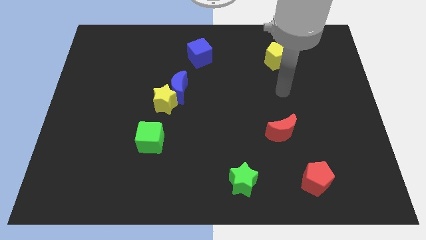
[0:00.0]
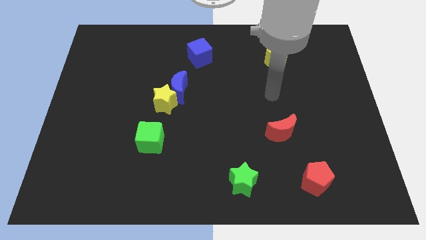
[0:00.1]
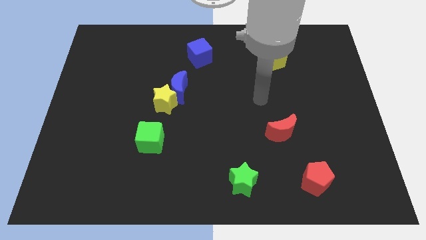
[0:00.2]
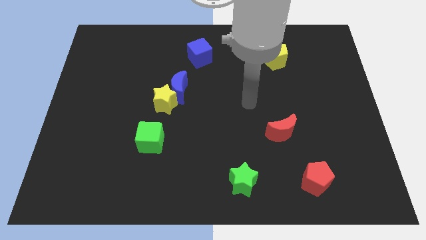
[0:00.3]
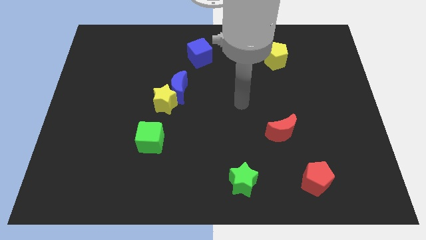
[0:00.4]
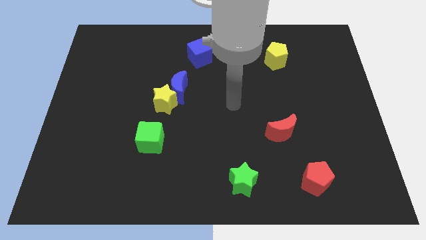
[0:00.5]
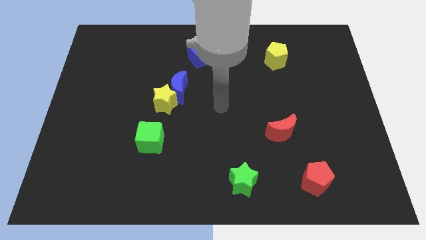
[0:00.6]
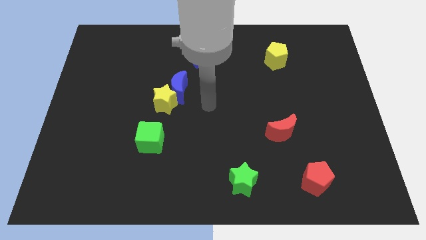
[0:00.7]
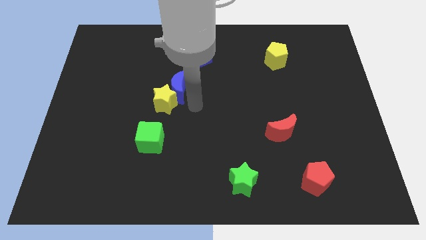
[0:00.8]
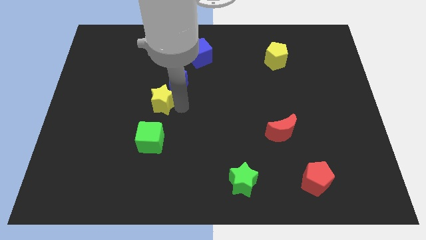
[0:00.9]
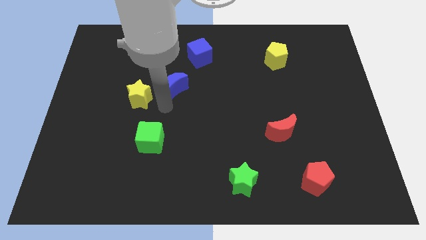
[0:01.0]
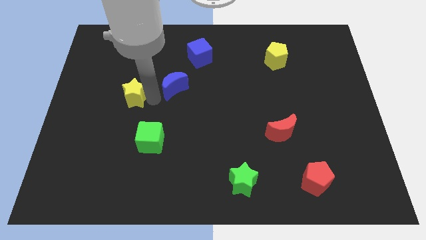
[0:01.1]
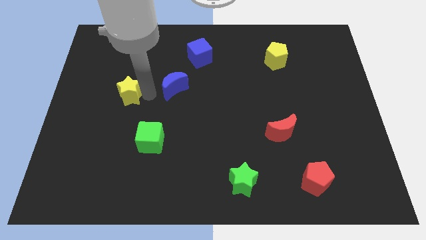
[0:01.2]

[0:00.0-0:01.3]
move the blue moon away from the yellow star

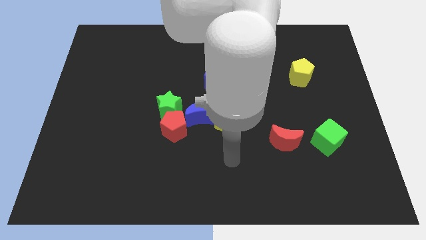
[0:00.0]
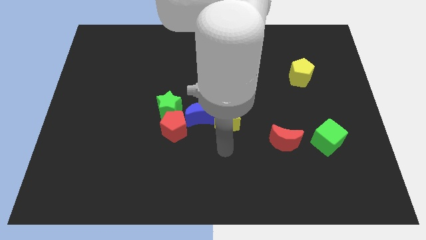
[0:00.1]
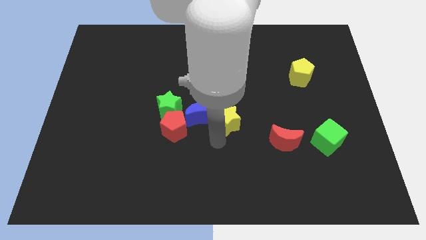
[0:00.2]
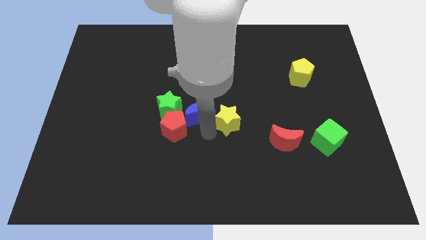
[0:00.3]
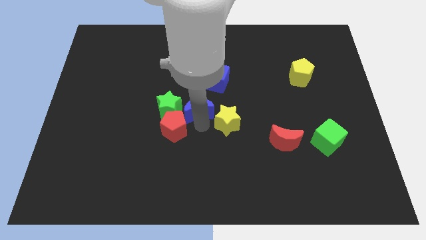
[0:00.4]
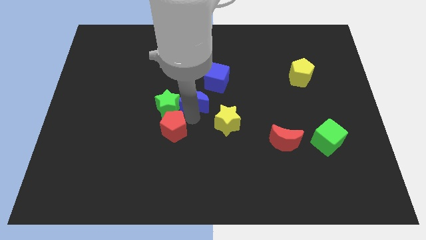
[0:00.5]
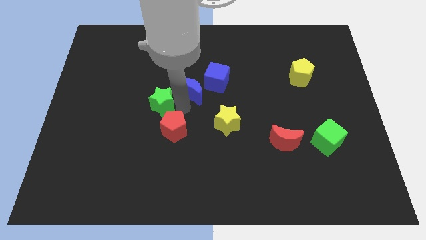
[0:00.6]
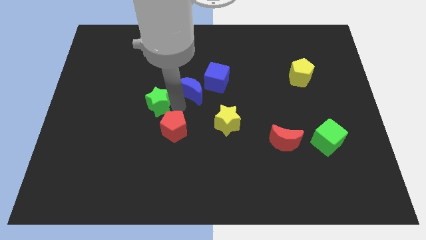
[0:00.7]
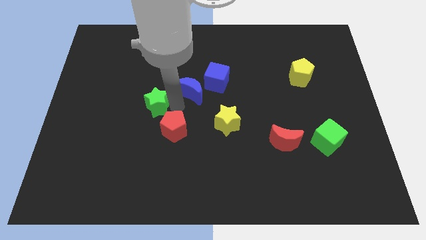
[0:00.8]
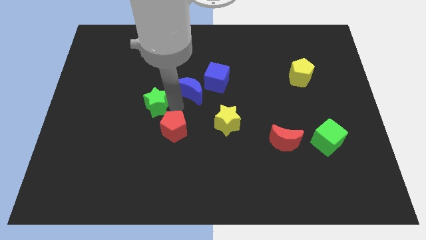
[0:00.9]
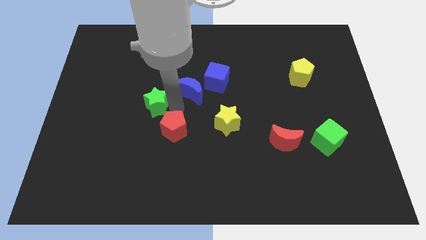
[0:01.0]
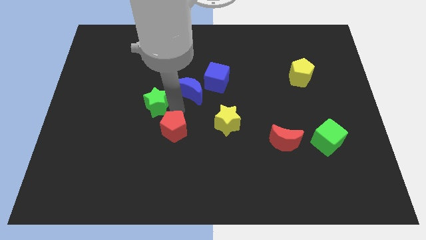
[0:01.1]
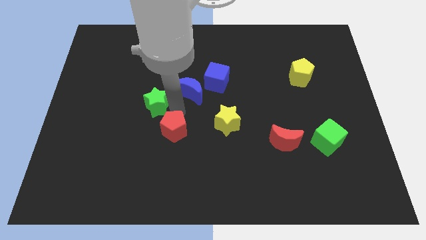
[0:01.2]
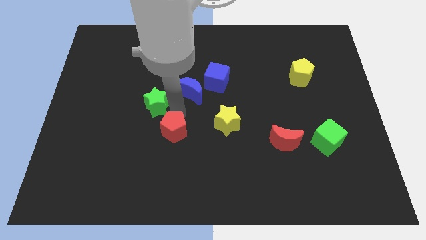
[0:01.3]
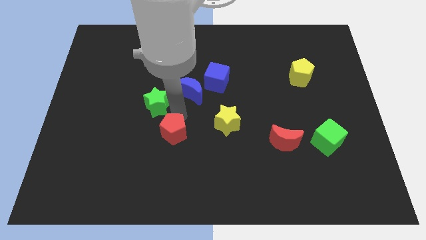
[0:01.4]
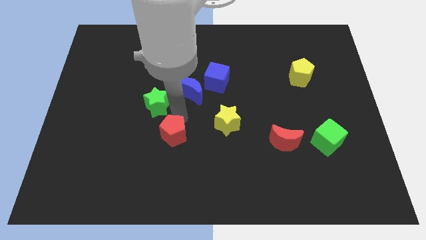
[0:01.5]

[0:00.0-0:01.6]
move the red pentagon away from the green star and blue moon

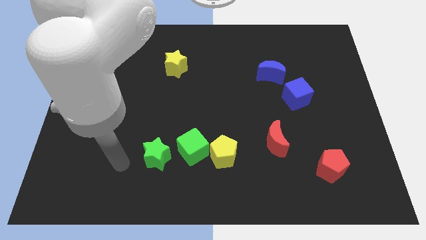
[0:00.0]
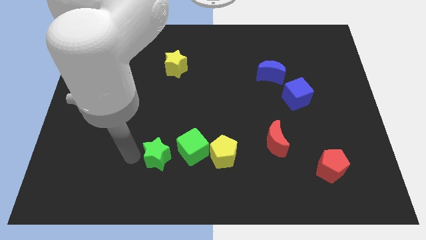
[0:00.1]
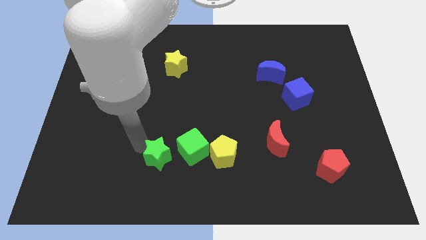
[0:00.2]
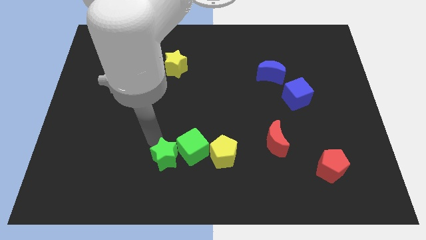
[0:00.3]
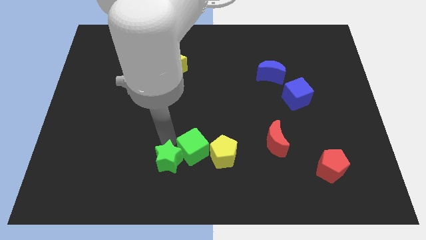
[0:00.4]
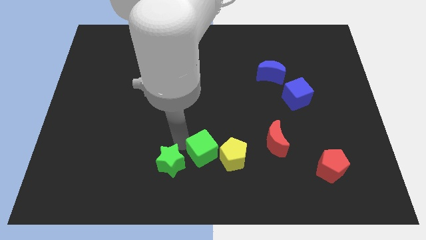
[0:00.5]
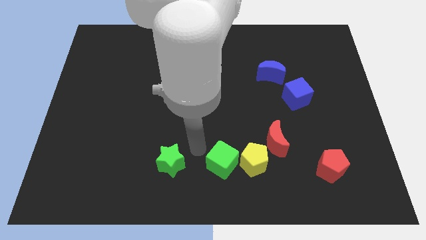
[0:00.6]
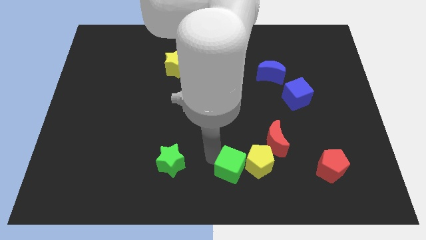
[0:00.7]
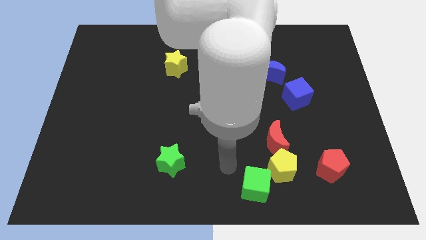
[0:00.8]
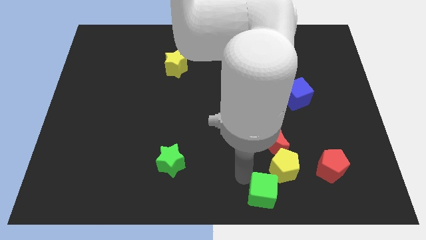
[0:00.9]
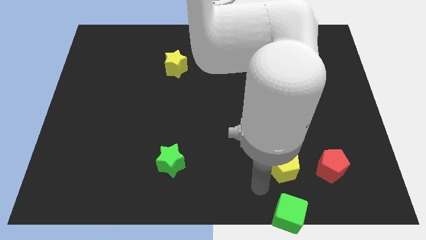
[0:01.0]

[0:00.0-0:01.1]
pull the yellow pentagon apart from the green cube

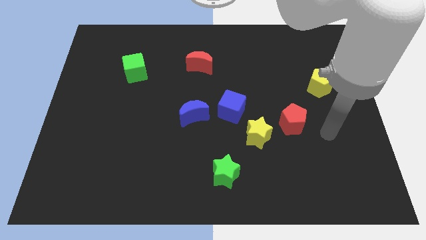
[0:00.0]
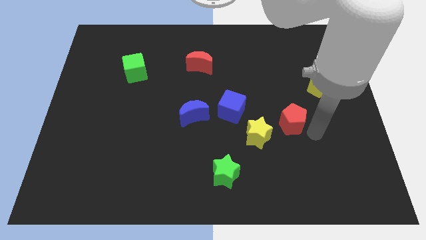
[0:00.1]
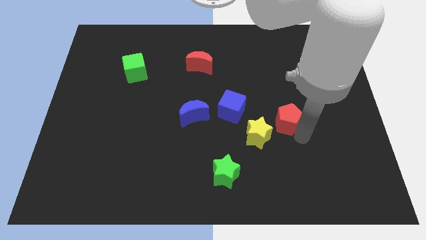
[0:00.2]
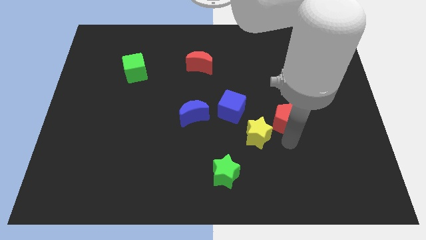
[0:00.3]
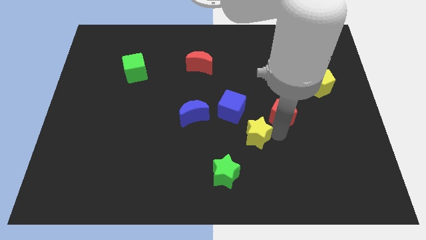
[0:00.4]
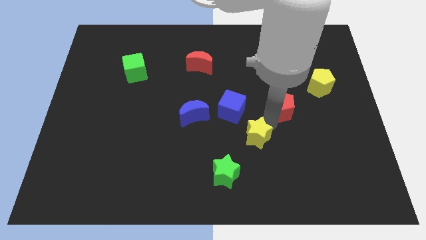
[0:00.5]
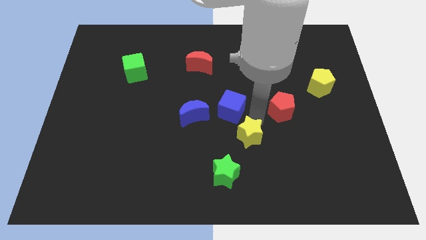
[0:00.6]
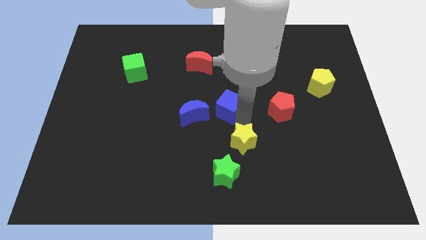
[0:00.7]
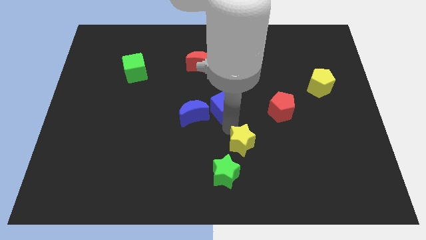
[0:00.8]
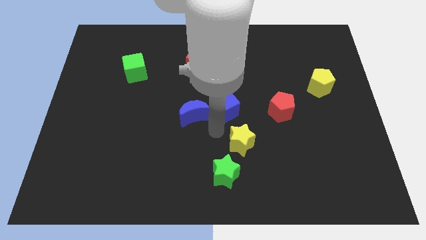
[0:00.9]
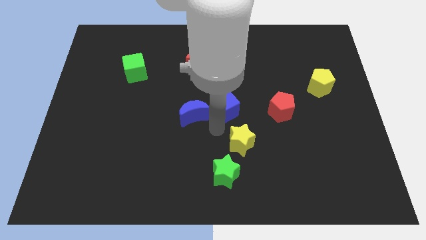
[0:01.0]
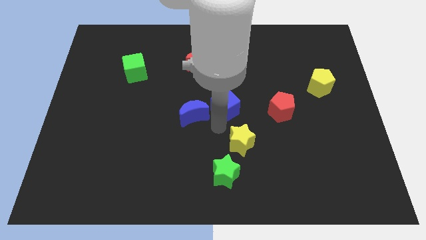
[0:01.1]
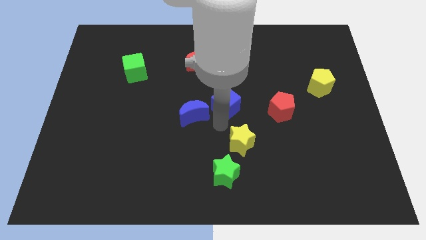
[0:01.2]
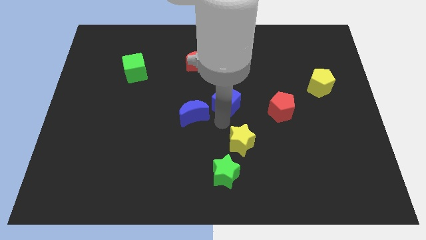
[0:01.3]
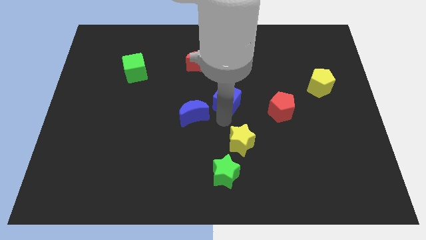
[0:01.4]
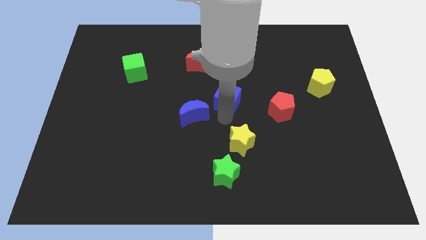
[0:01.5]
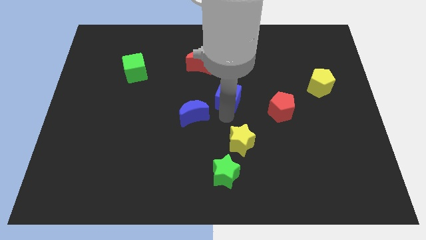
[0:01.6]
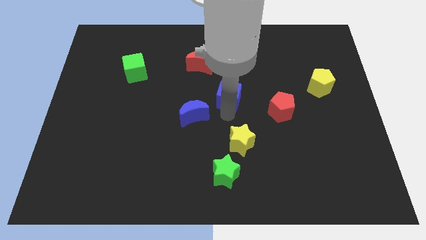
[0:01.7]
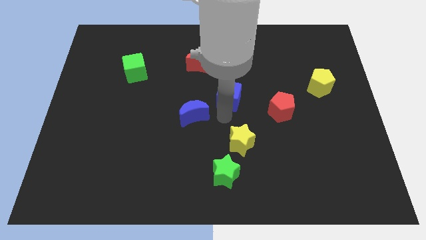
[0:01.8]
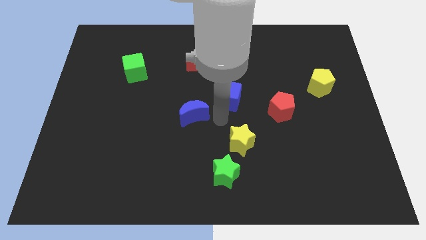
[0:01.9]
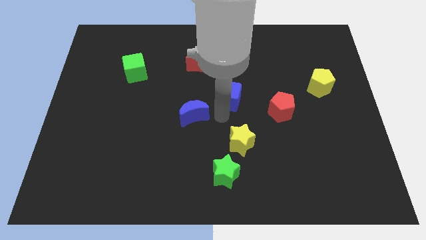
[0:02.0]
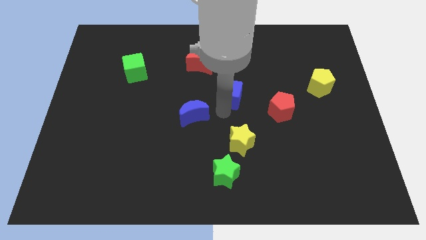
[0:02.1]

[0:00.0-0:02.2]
pull the blue cube apart from the yellow star and blue moon

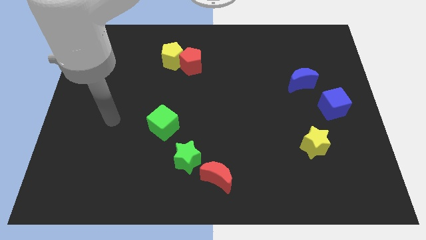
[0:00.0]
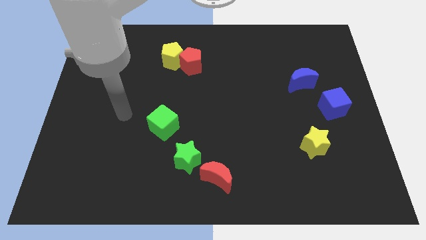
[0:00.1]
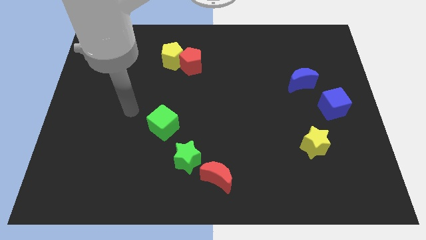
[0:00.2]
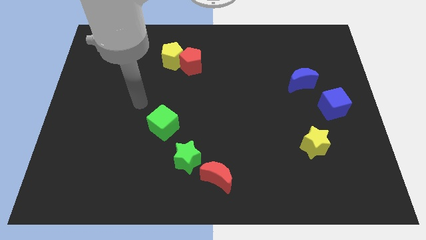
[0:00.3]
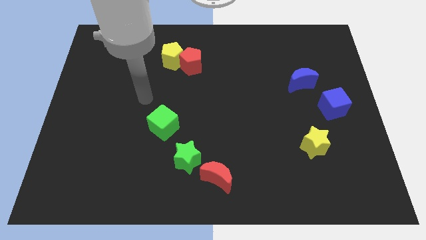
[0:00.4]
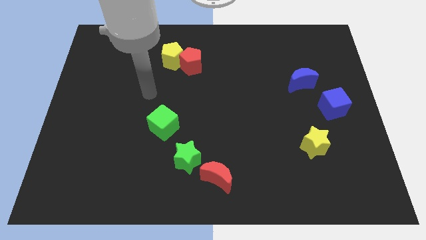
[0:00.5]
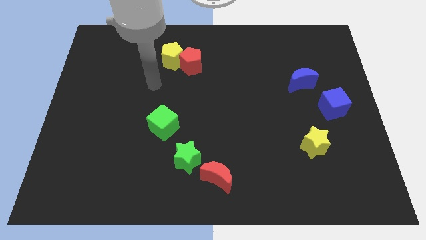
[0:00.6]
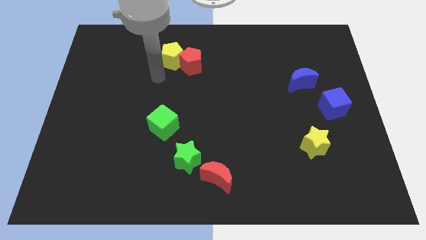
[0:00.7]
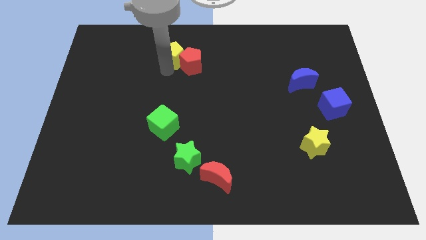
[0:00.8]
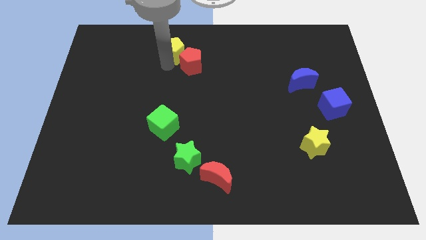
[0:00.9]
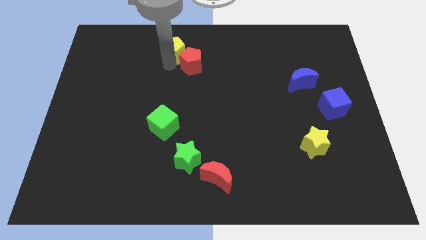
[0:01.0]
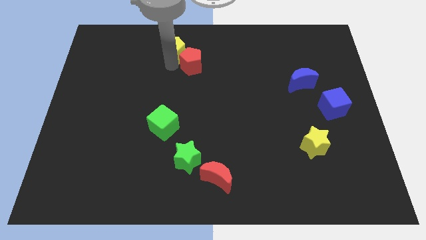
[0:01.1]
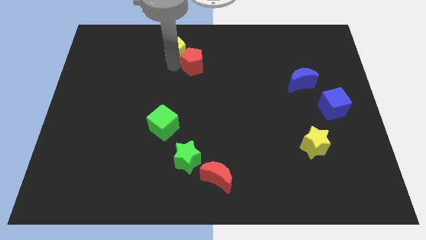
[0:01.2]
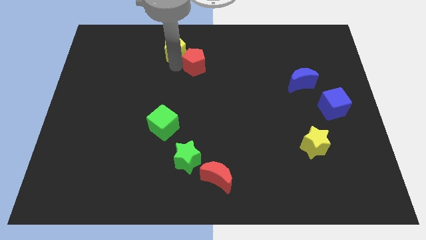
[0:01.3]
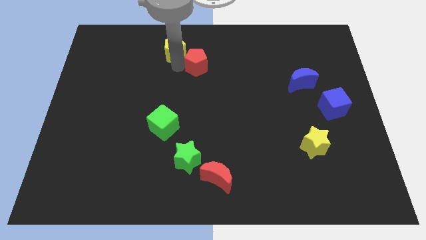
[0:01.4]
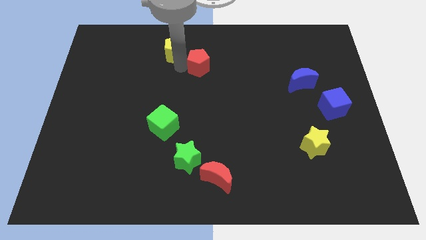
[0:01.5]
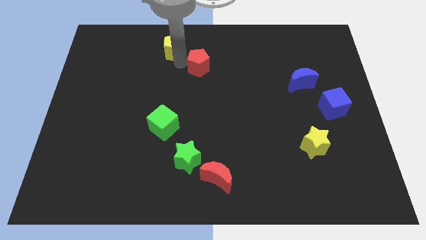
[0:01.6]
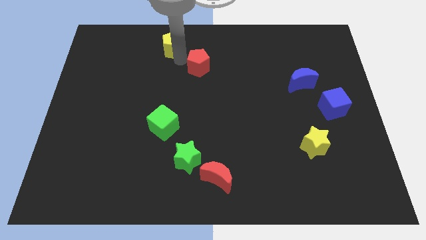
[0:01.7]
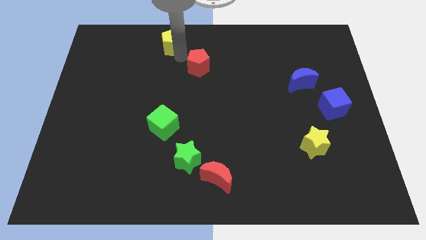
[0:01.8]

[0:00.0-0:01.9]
separate the red pentagon from the yellow pentagon

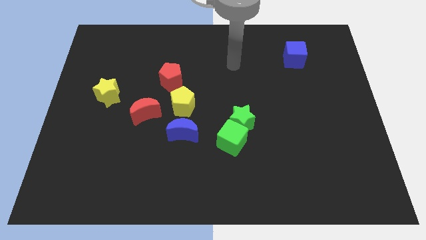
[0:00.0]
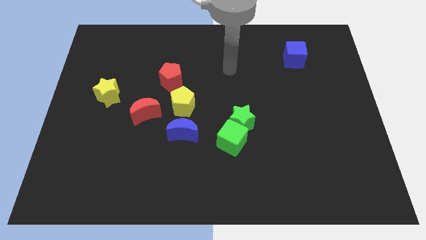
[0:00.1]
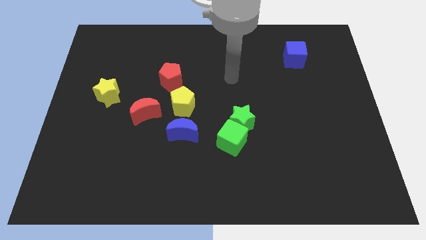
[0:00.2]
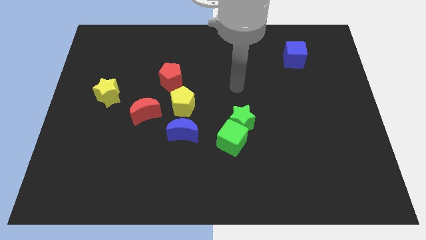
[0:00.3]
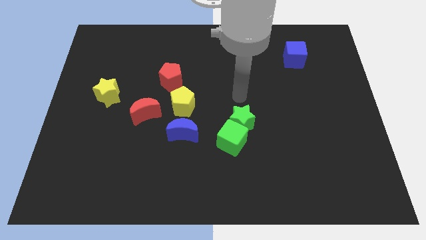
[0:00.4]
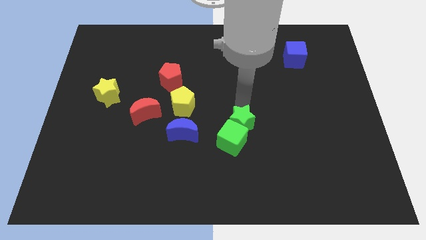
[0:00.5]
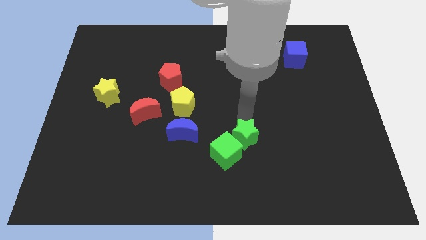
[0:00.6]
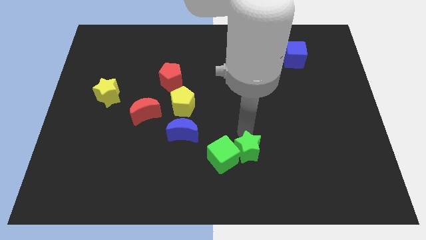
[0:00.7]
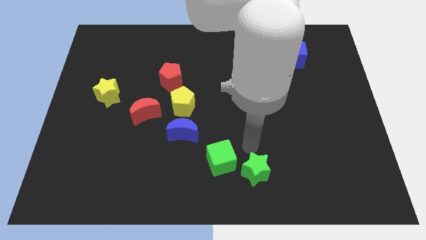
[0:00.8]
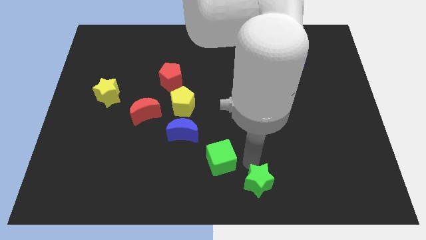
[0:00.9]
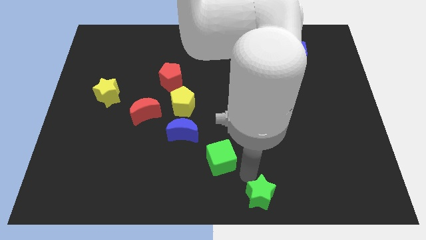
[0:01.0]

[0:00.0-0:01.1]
separate the green cube from the green star
